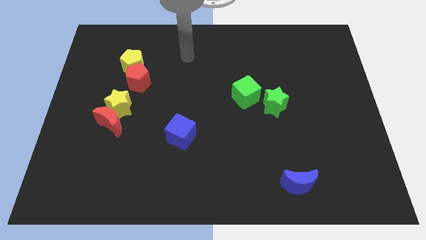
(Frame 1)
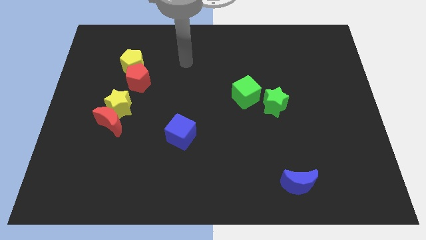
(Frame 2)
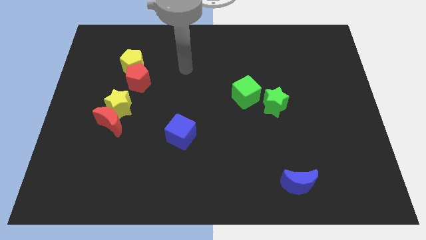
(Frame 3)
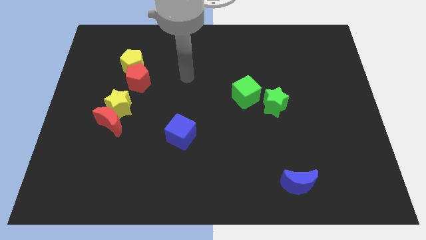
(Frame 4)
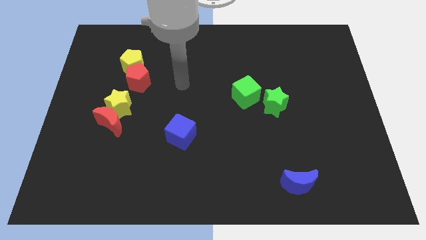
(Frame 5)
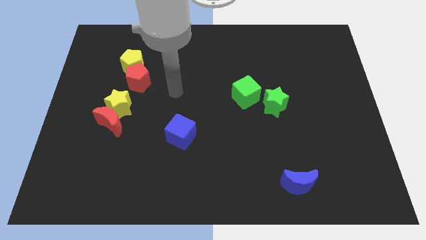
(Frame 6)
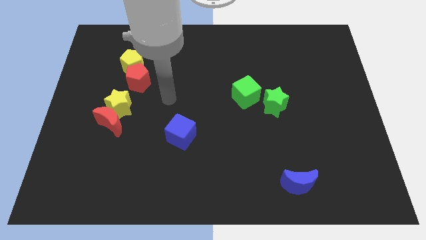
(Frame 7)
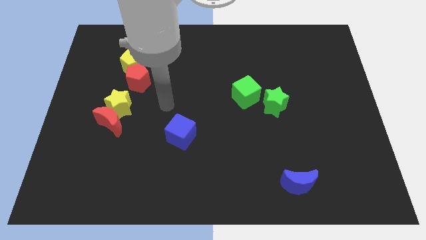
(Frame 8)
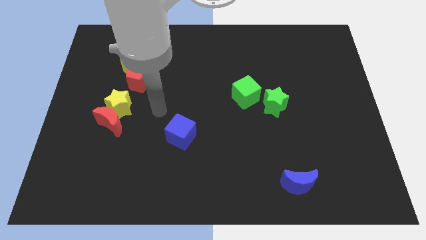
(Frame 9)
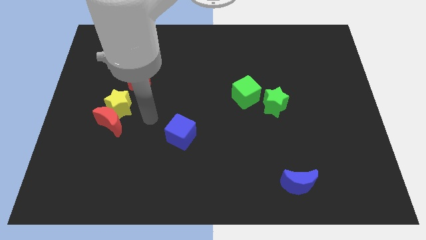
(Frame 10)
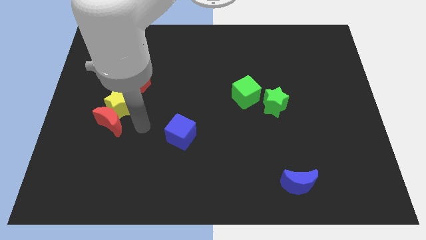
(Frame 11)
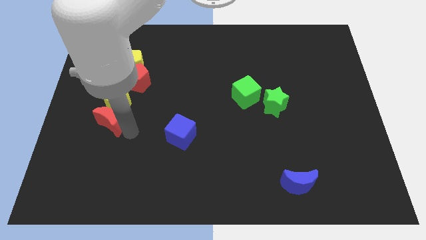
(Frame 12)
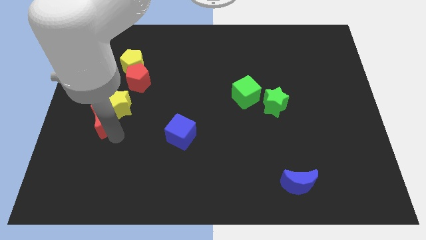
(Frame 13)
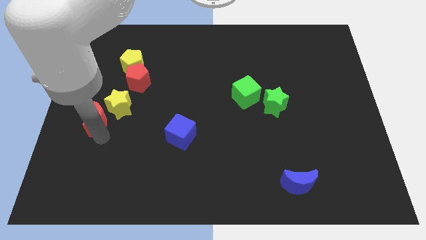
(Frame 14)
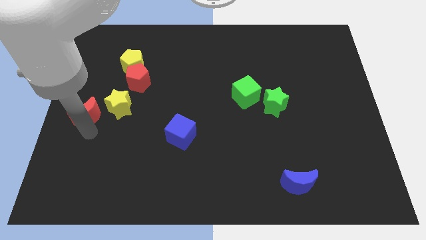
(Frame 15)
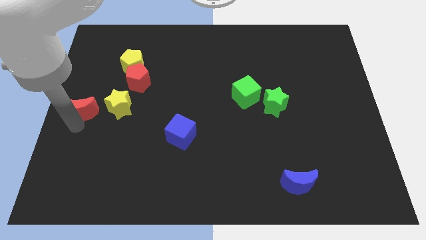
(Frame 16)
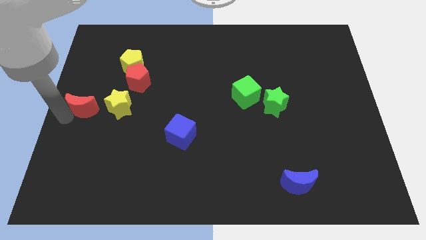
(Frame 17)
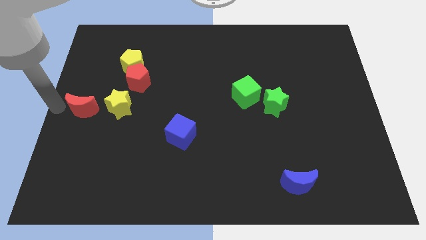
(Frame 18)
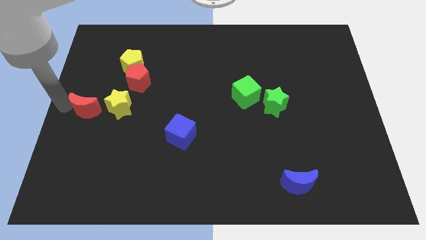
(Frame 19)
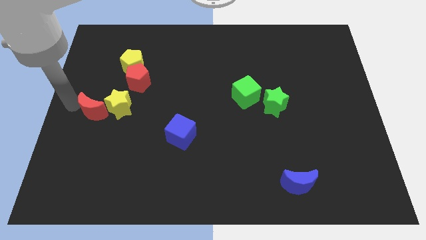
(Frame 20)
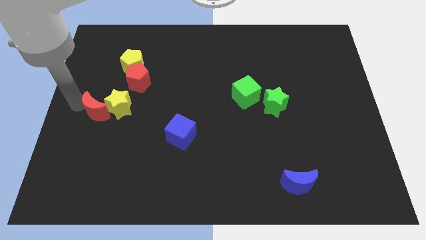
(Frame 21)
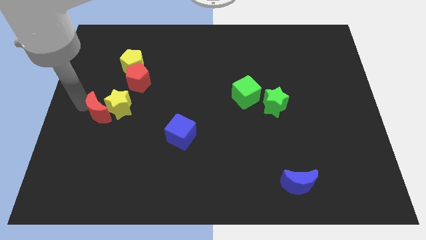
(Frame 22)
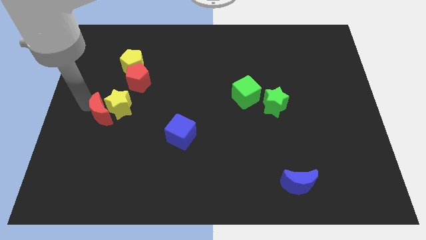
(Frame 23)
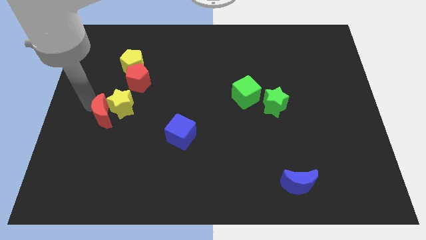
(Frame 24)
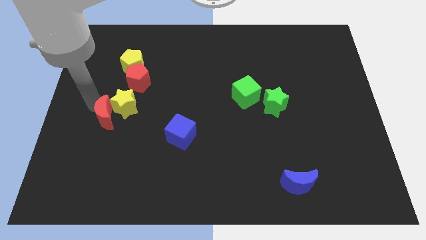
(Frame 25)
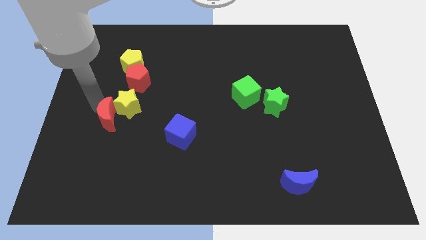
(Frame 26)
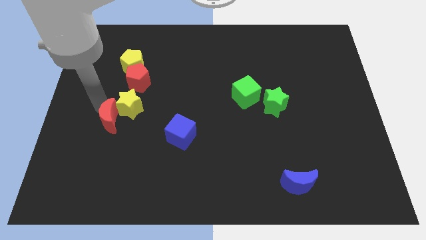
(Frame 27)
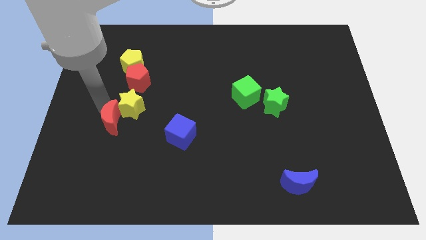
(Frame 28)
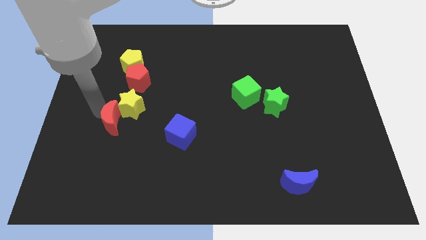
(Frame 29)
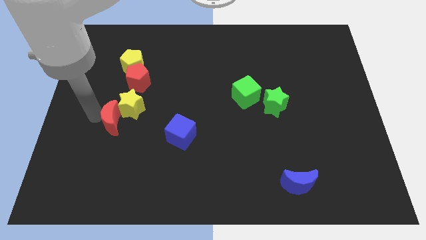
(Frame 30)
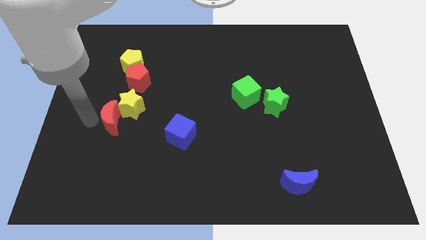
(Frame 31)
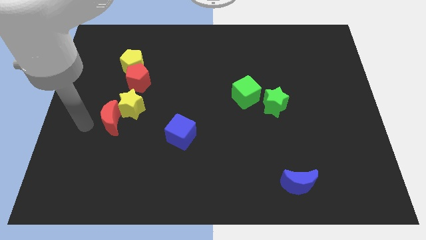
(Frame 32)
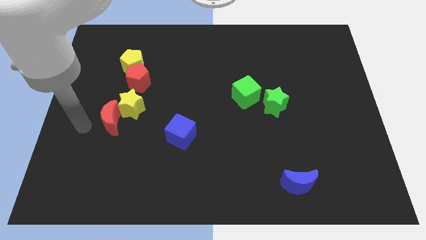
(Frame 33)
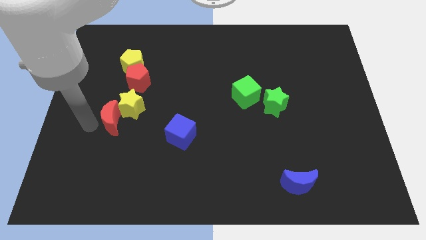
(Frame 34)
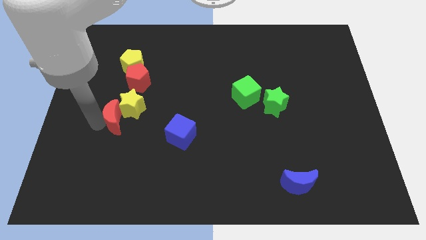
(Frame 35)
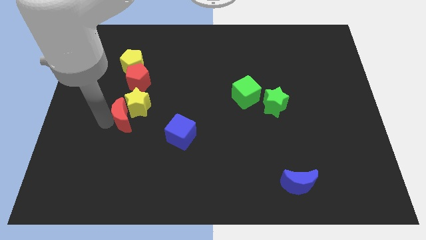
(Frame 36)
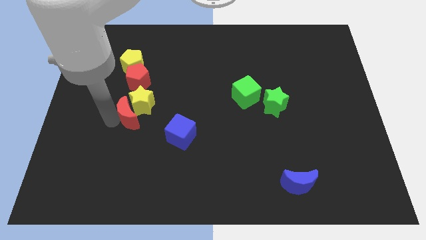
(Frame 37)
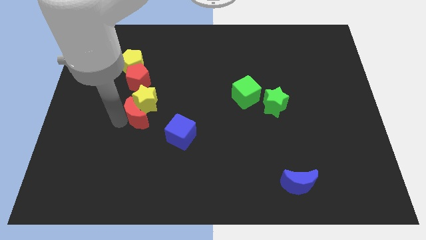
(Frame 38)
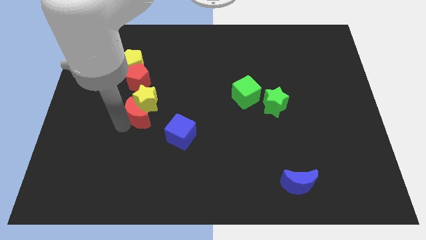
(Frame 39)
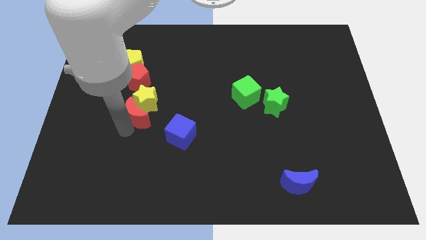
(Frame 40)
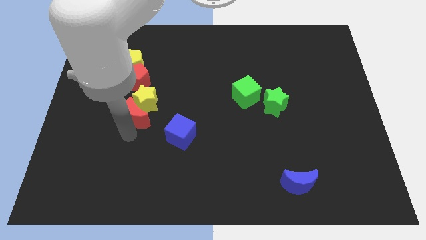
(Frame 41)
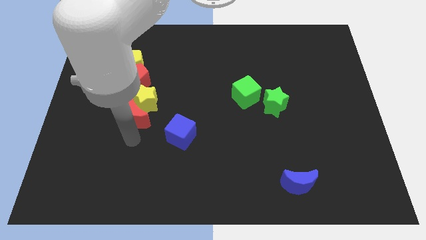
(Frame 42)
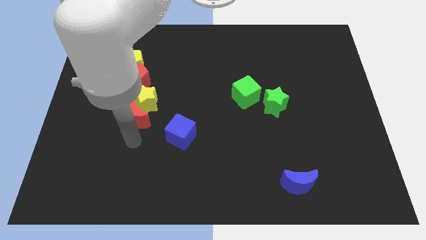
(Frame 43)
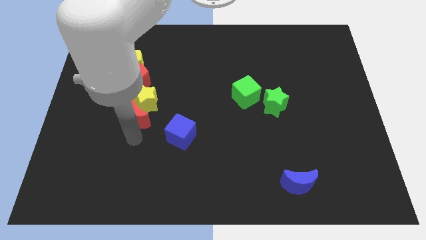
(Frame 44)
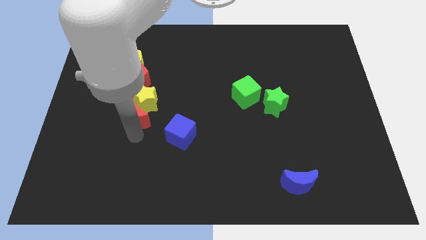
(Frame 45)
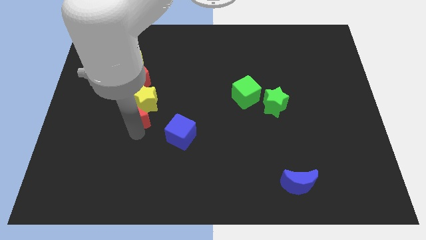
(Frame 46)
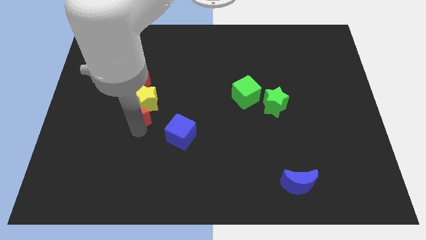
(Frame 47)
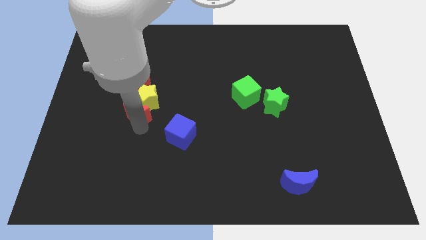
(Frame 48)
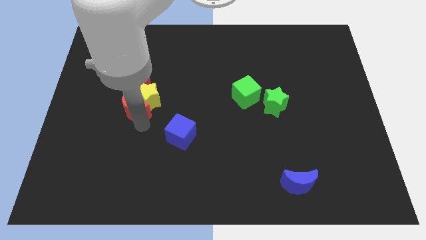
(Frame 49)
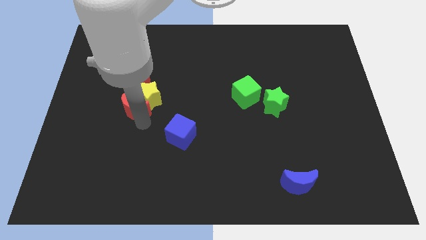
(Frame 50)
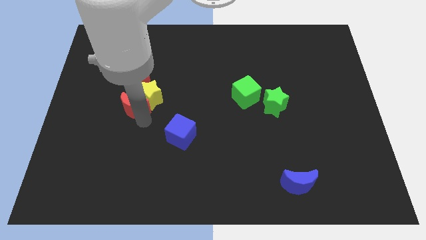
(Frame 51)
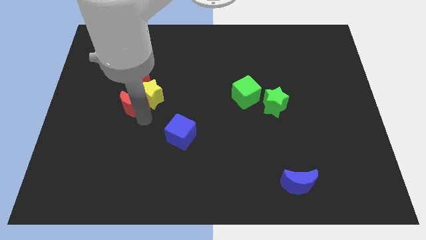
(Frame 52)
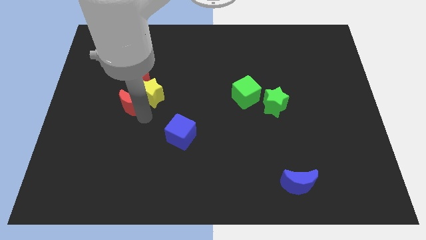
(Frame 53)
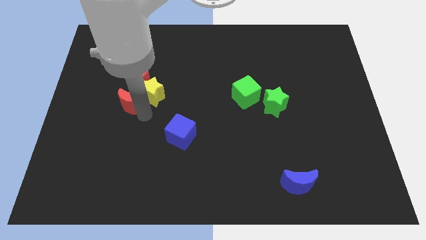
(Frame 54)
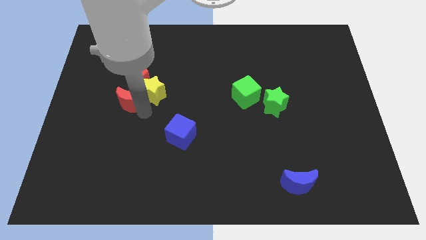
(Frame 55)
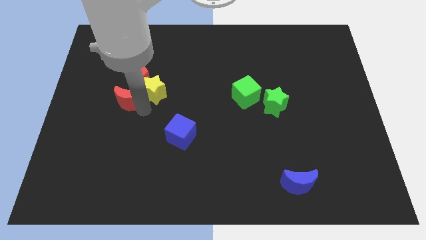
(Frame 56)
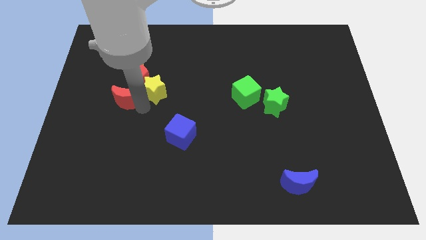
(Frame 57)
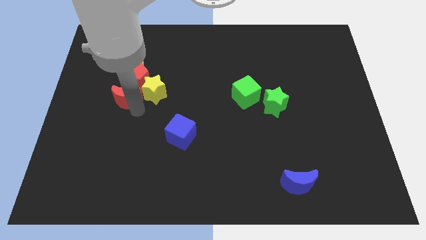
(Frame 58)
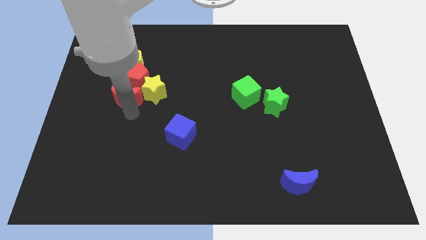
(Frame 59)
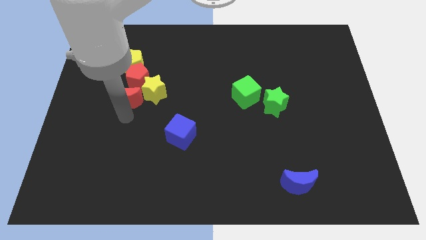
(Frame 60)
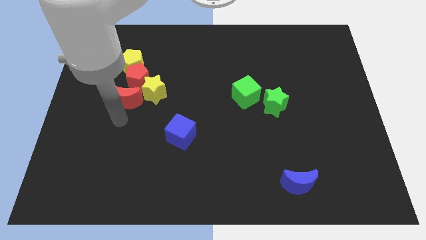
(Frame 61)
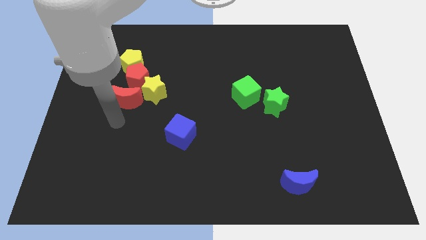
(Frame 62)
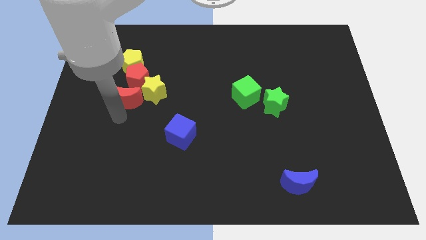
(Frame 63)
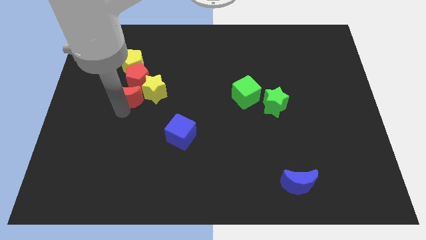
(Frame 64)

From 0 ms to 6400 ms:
slide the red moon next to the red pentagon

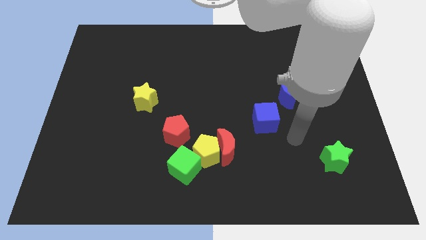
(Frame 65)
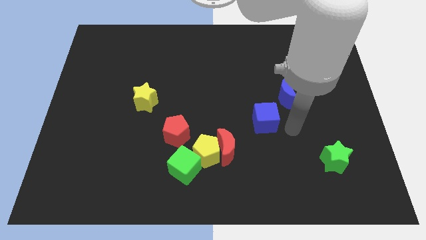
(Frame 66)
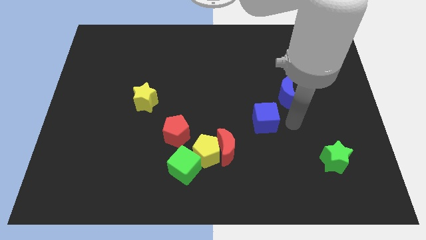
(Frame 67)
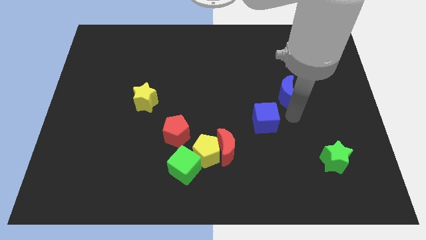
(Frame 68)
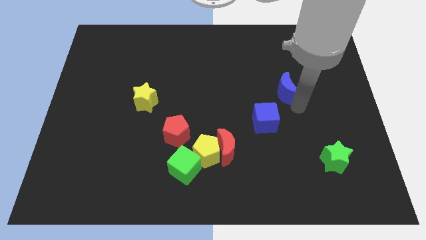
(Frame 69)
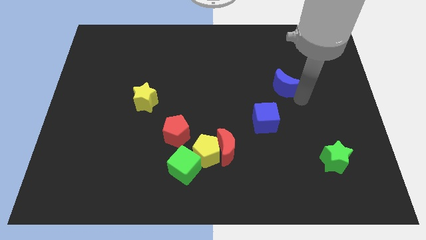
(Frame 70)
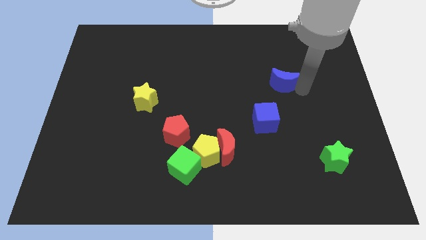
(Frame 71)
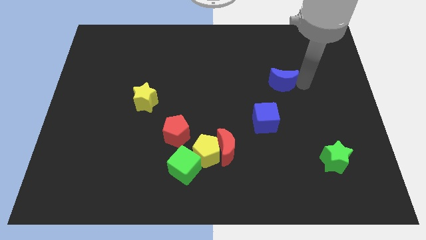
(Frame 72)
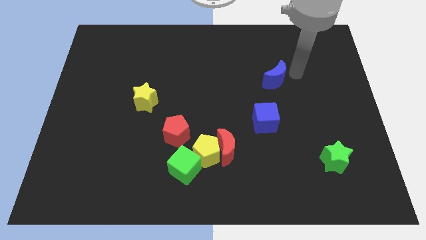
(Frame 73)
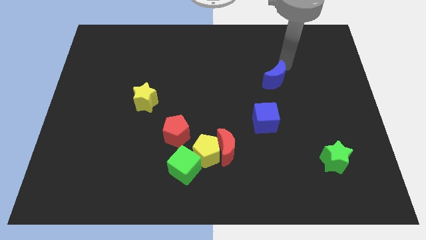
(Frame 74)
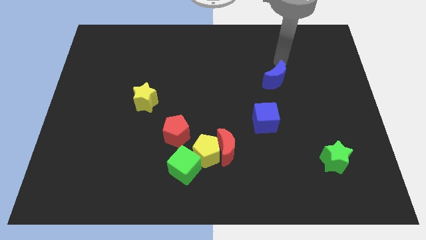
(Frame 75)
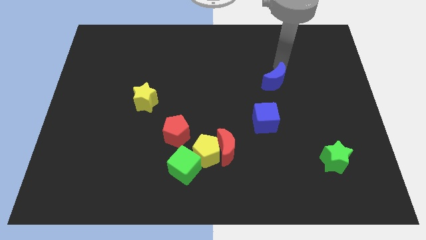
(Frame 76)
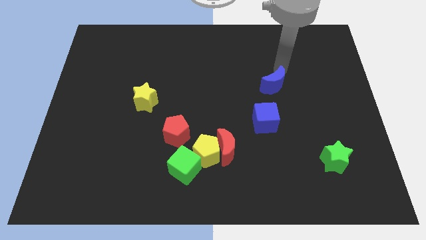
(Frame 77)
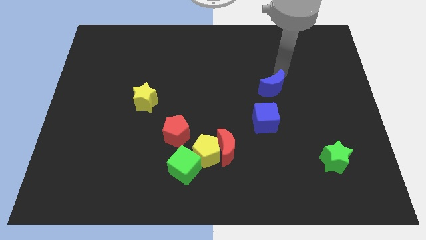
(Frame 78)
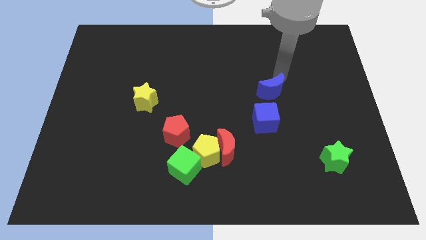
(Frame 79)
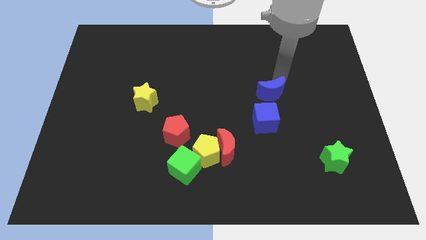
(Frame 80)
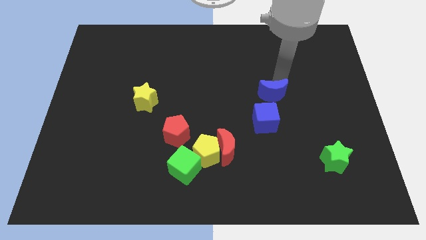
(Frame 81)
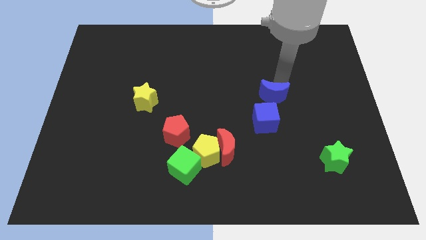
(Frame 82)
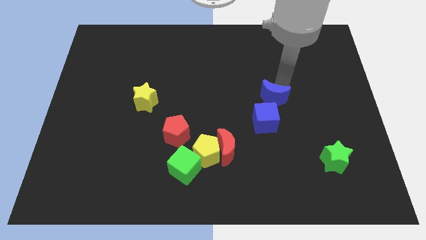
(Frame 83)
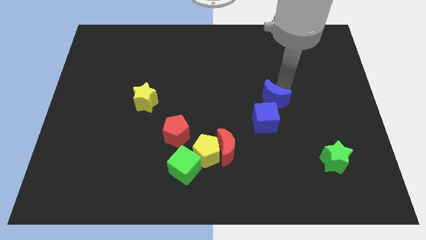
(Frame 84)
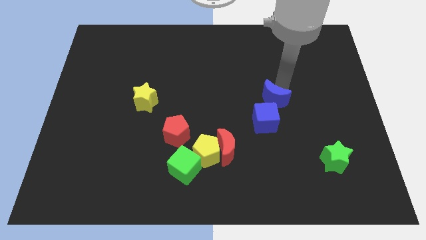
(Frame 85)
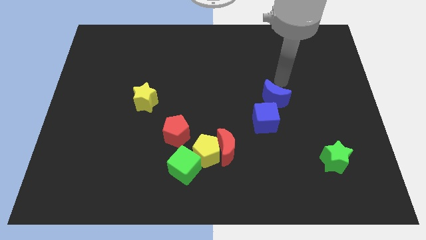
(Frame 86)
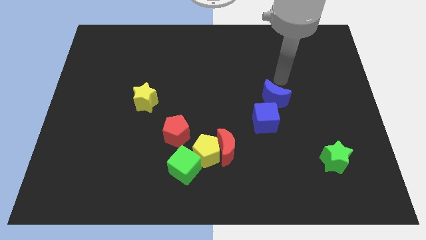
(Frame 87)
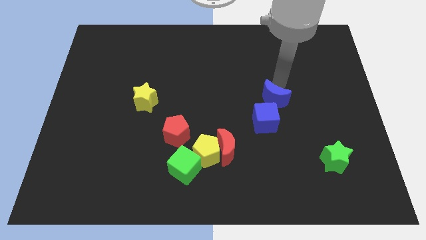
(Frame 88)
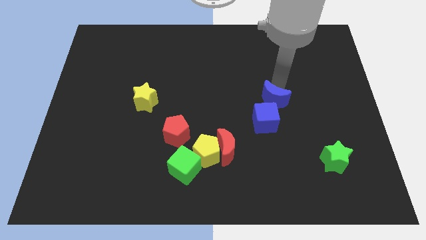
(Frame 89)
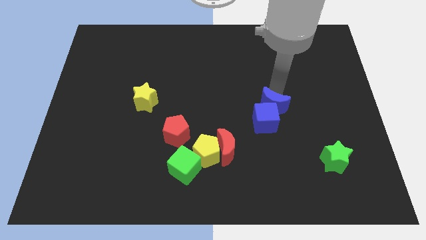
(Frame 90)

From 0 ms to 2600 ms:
slide the blue moon close to the blue cube
